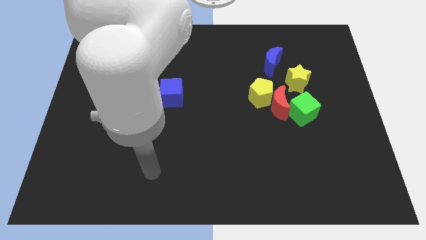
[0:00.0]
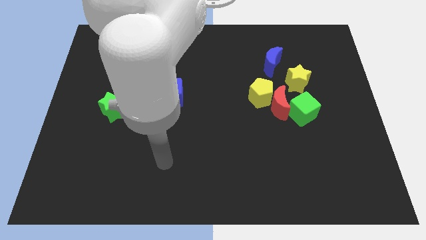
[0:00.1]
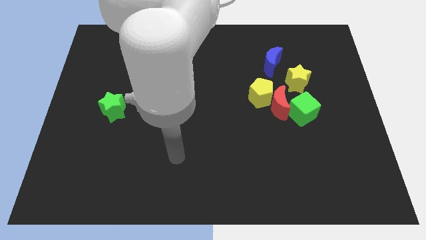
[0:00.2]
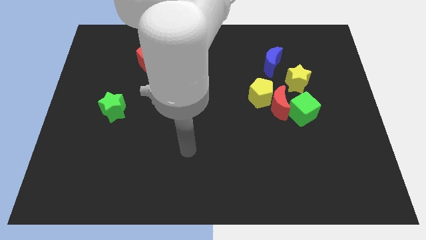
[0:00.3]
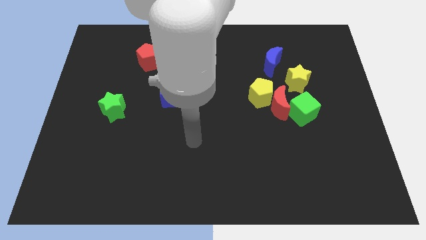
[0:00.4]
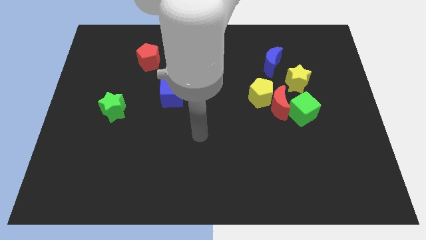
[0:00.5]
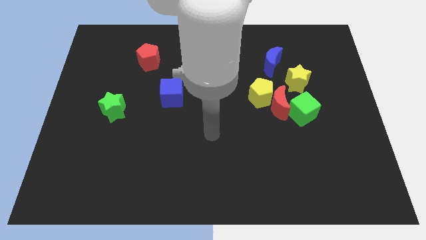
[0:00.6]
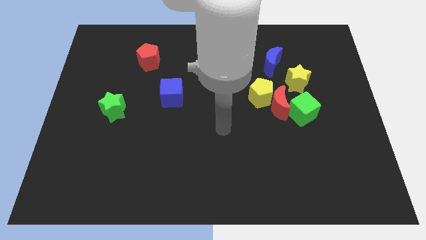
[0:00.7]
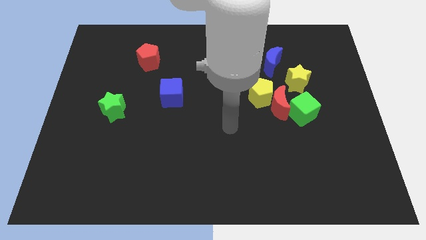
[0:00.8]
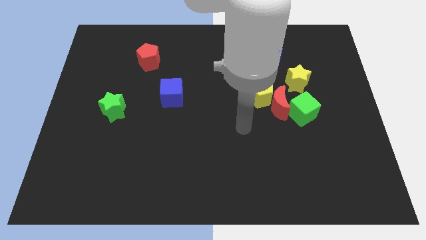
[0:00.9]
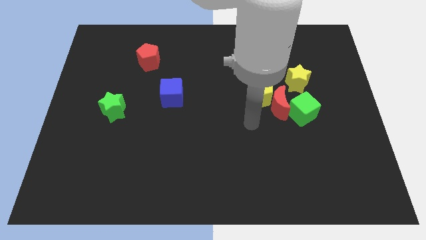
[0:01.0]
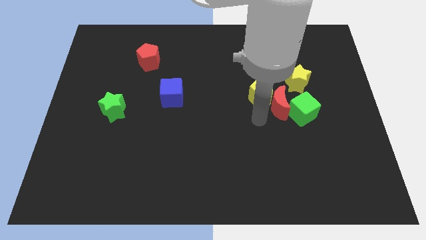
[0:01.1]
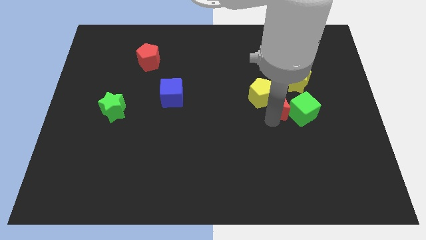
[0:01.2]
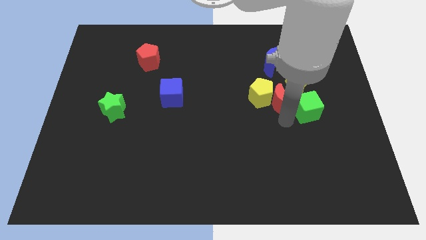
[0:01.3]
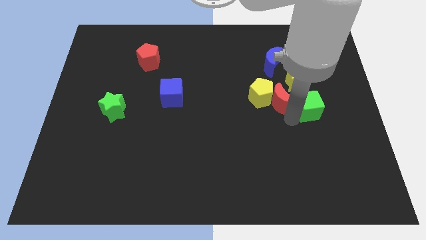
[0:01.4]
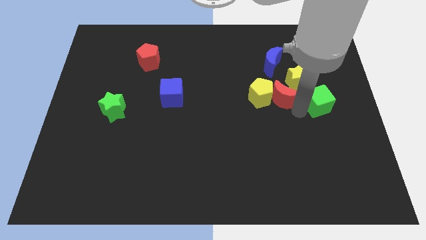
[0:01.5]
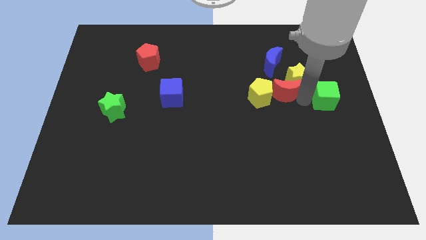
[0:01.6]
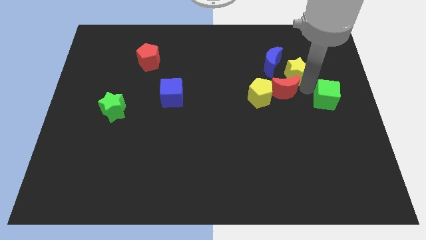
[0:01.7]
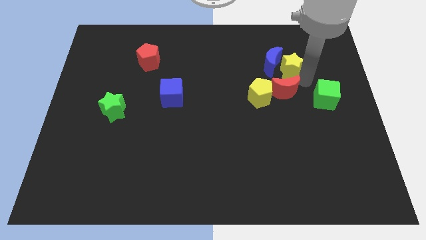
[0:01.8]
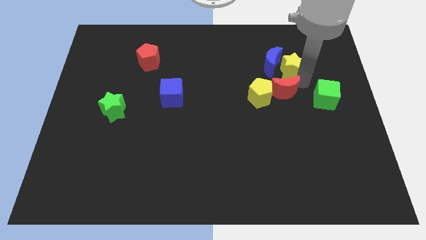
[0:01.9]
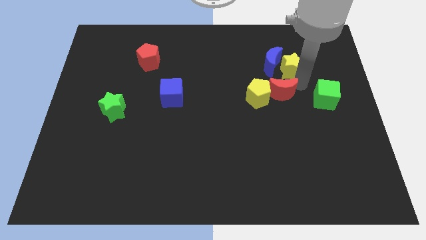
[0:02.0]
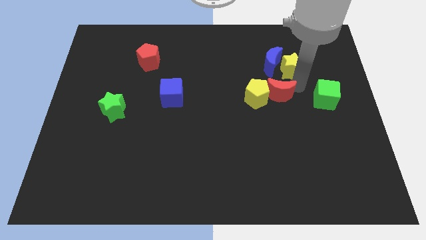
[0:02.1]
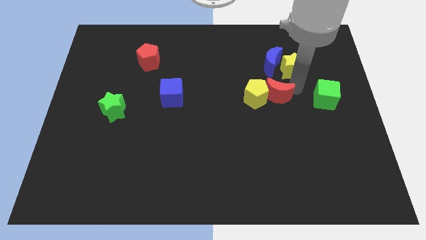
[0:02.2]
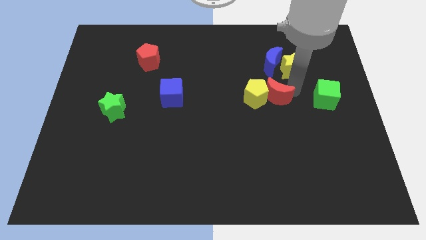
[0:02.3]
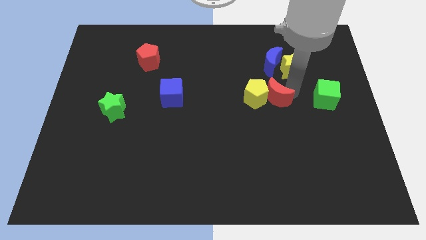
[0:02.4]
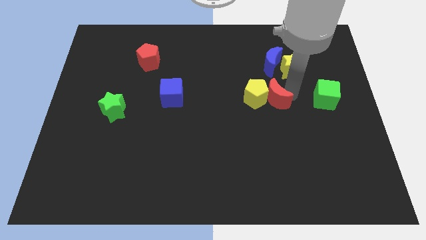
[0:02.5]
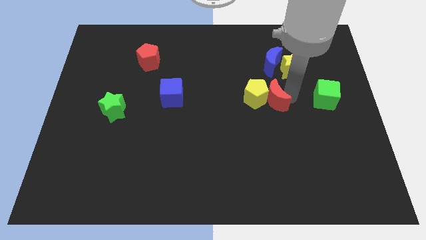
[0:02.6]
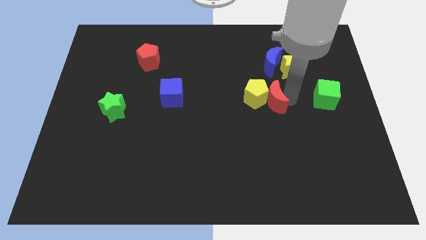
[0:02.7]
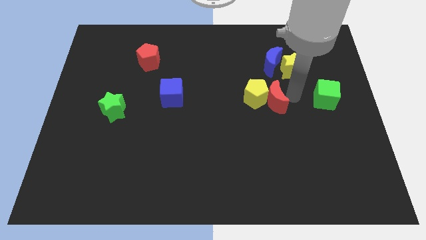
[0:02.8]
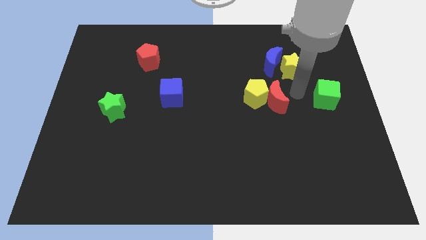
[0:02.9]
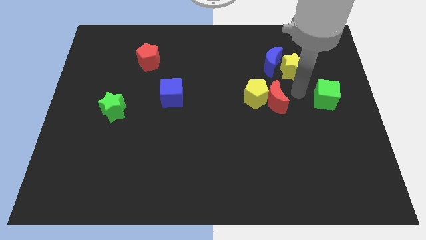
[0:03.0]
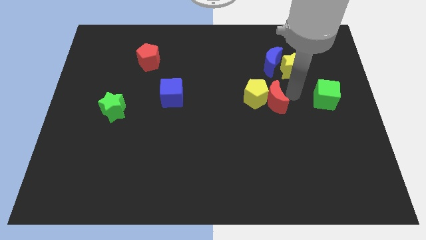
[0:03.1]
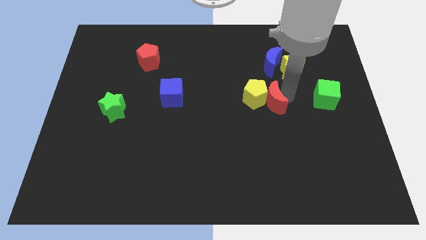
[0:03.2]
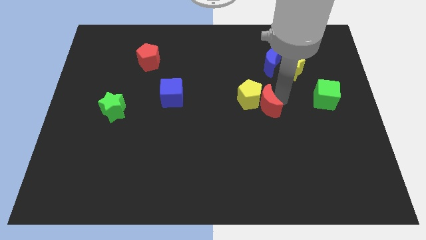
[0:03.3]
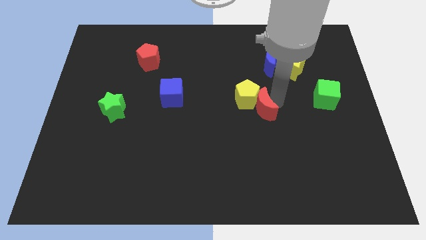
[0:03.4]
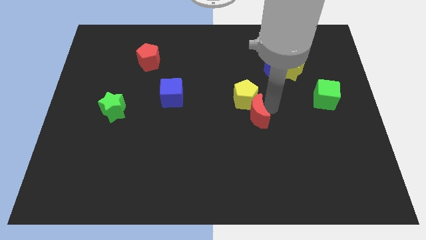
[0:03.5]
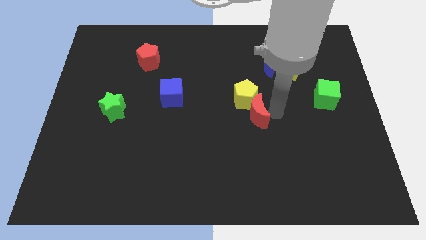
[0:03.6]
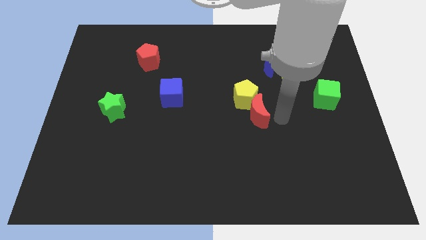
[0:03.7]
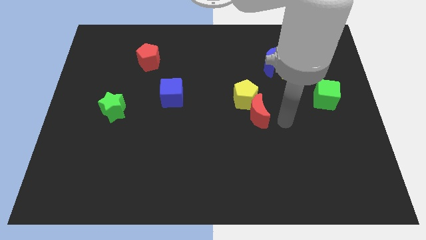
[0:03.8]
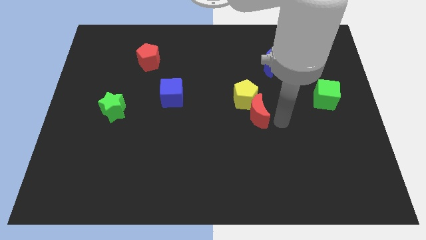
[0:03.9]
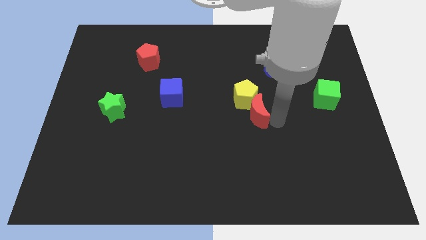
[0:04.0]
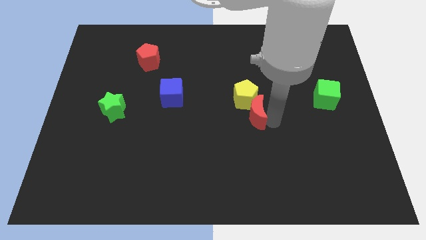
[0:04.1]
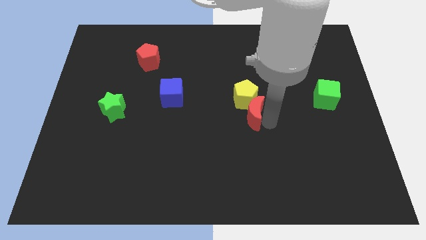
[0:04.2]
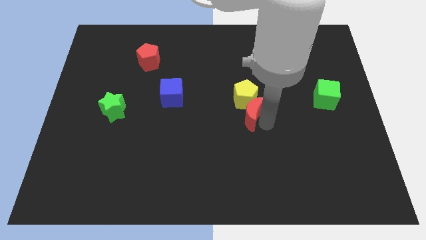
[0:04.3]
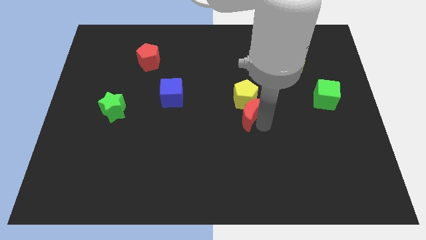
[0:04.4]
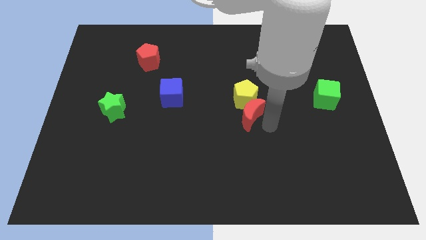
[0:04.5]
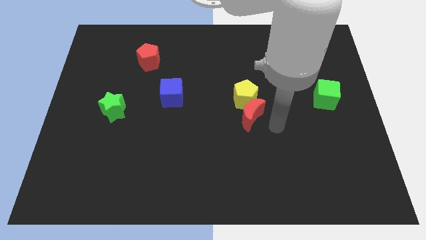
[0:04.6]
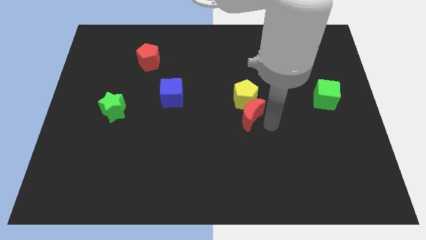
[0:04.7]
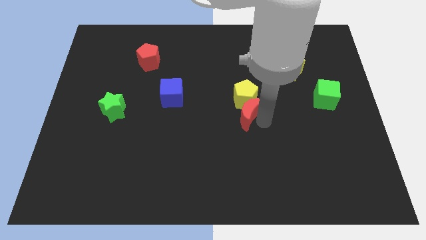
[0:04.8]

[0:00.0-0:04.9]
slightly push the red moon to the left

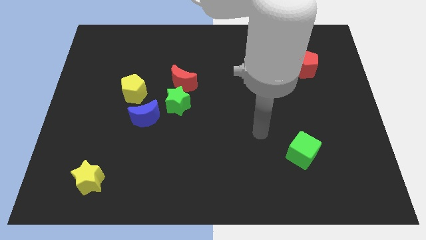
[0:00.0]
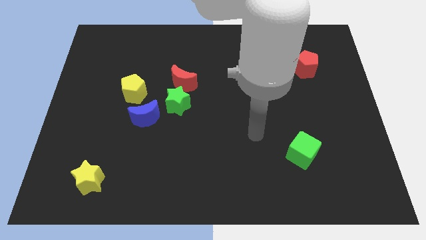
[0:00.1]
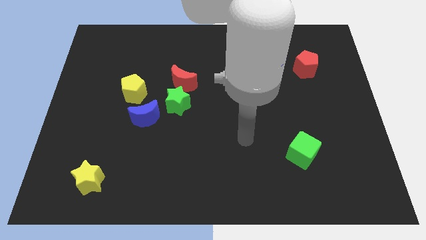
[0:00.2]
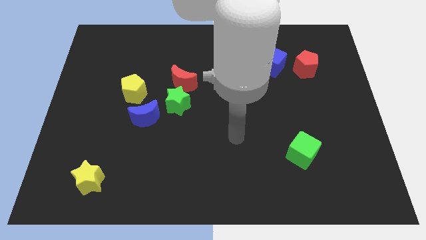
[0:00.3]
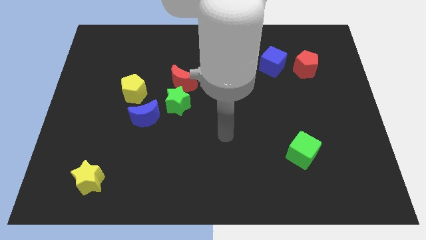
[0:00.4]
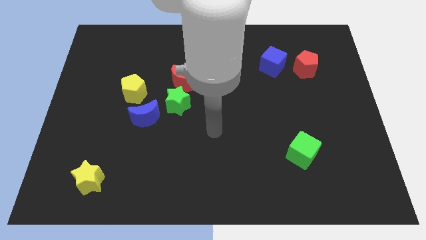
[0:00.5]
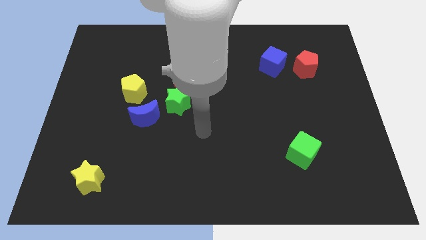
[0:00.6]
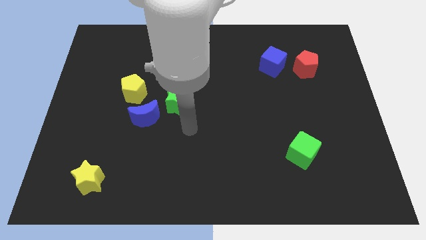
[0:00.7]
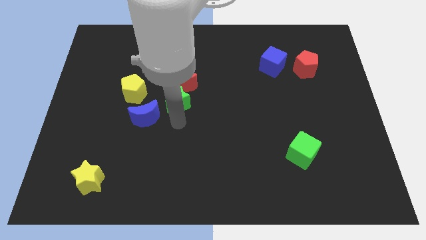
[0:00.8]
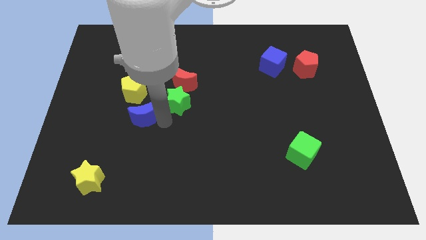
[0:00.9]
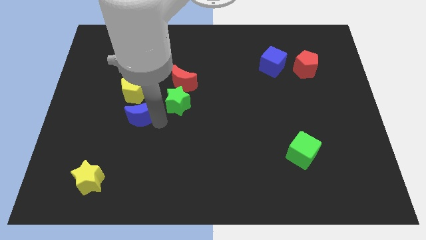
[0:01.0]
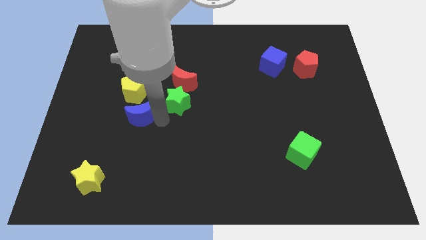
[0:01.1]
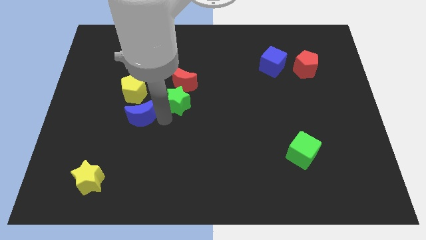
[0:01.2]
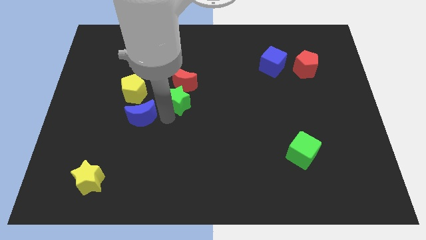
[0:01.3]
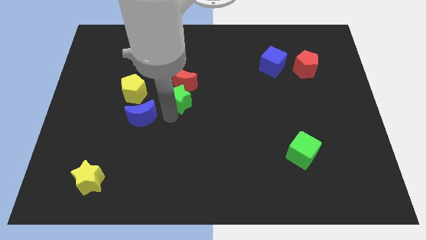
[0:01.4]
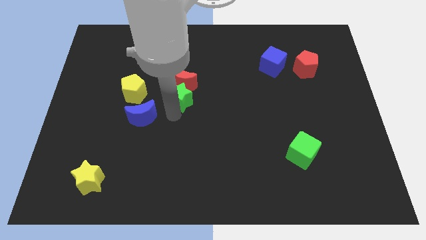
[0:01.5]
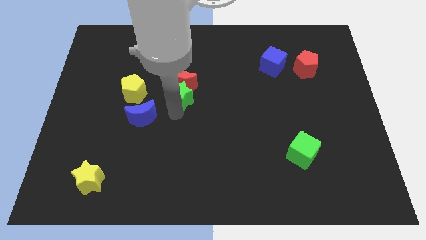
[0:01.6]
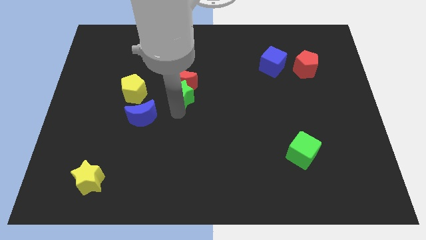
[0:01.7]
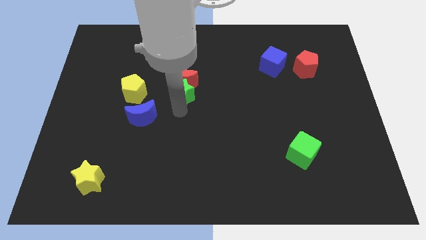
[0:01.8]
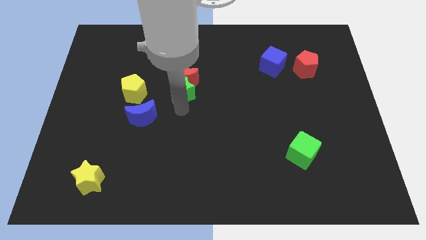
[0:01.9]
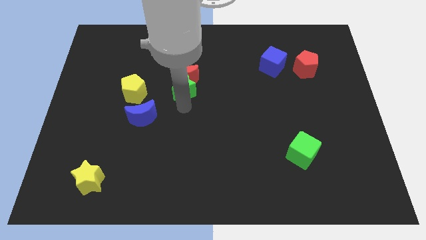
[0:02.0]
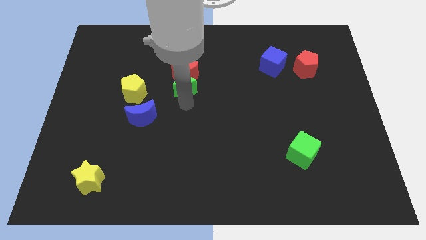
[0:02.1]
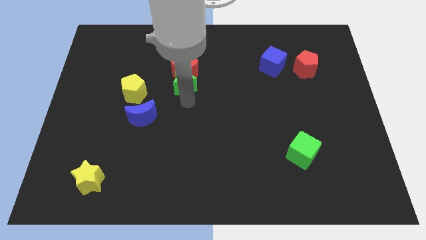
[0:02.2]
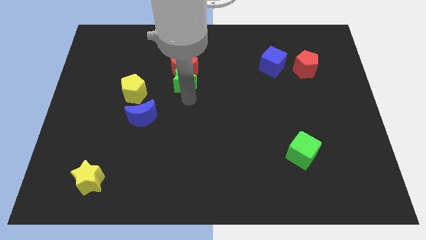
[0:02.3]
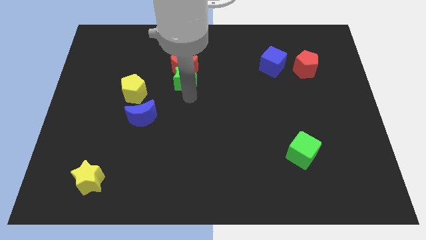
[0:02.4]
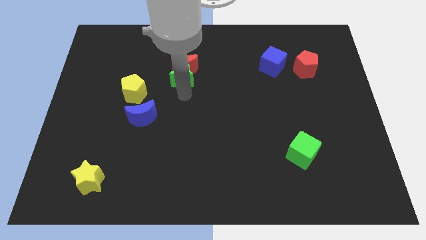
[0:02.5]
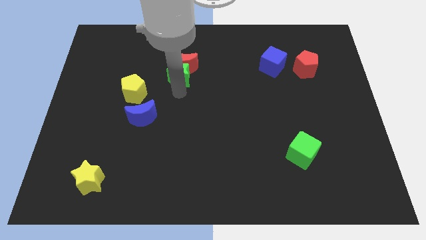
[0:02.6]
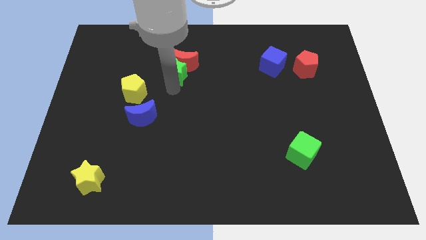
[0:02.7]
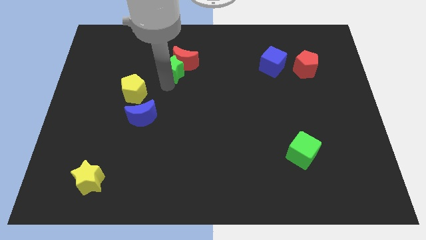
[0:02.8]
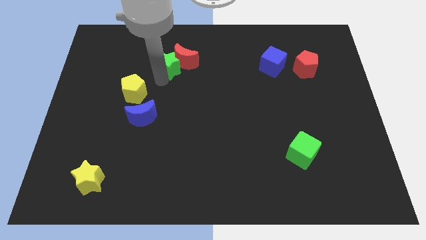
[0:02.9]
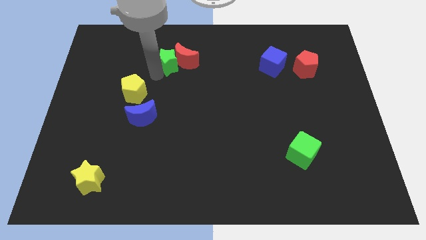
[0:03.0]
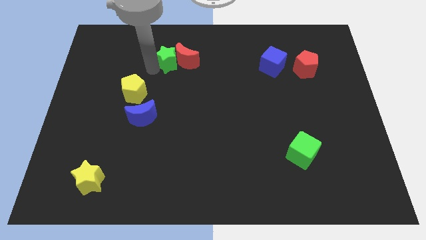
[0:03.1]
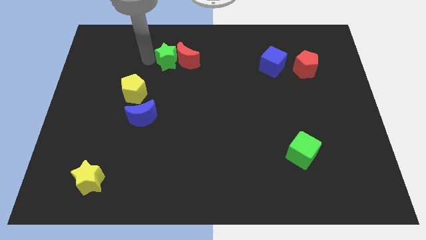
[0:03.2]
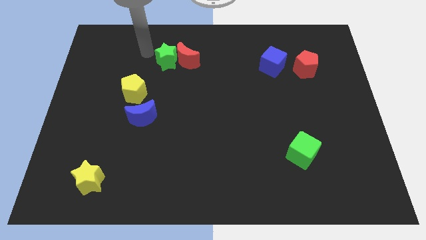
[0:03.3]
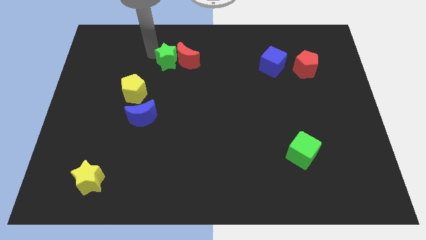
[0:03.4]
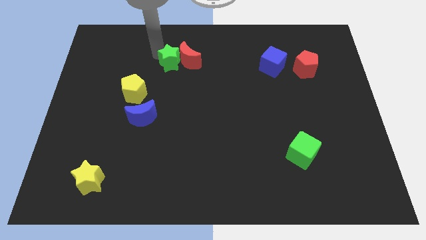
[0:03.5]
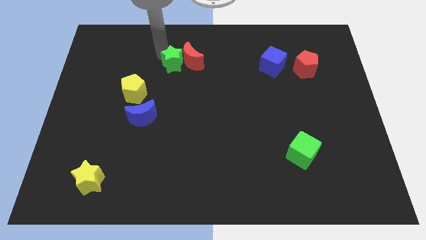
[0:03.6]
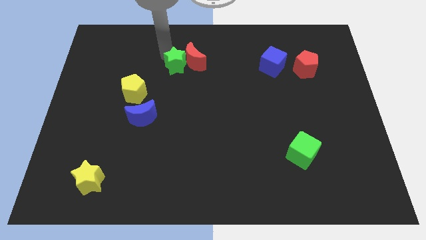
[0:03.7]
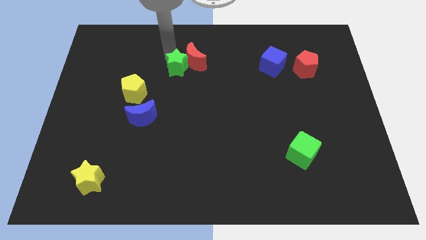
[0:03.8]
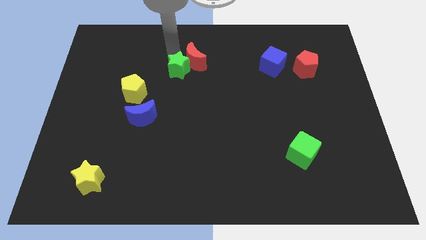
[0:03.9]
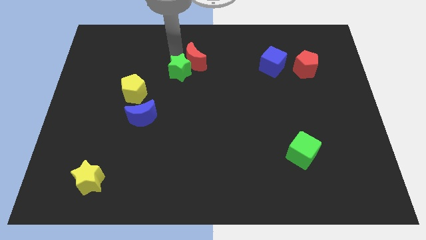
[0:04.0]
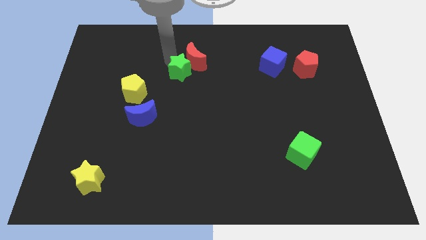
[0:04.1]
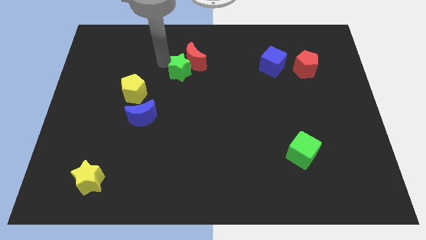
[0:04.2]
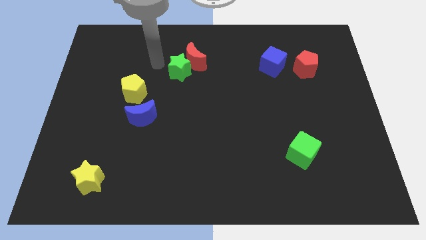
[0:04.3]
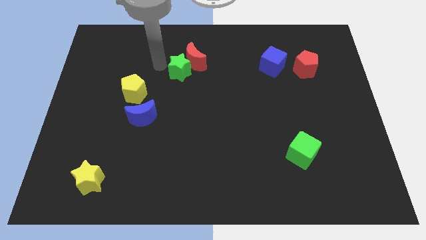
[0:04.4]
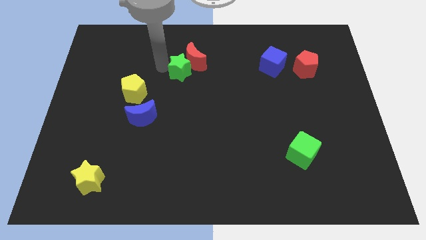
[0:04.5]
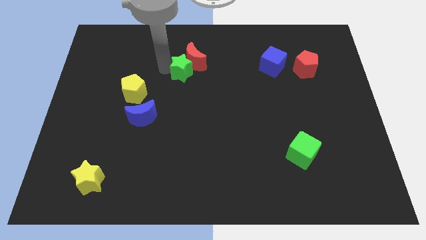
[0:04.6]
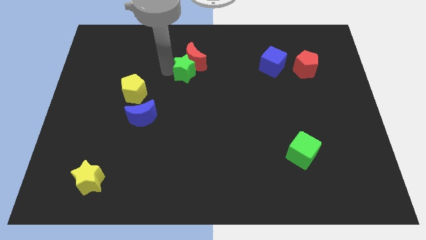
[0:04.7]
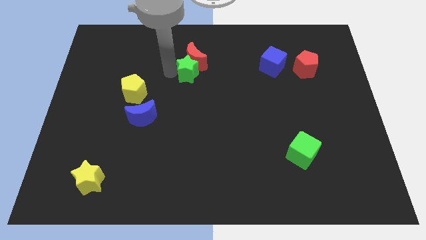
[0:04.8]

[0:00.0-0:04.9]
push the green star somewhat upwards and right
